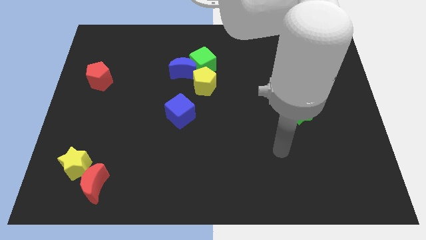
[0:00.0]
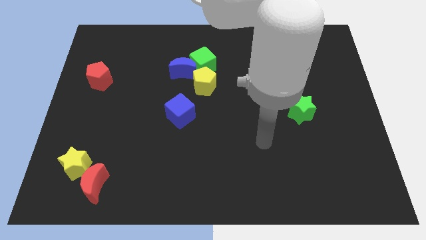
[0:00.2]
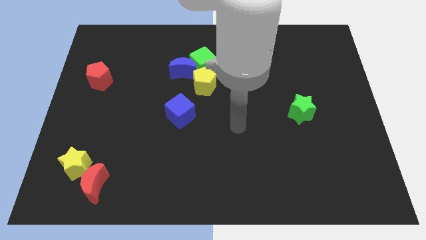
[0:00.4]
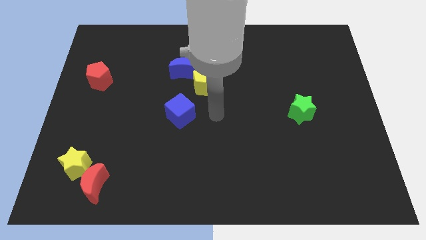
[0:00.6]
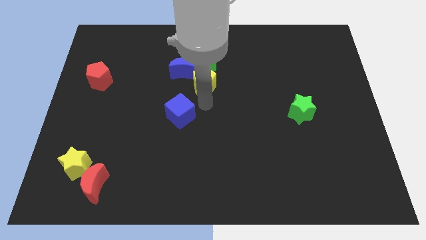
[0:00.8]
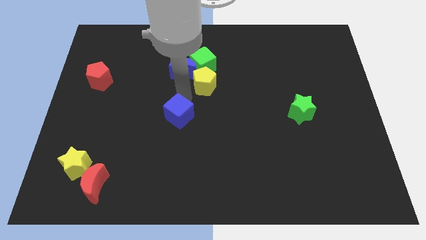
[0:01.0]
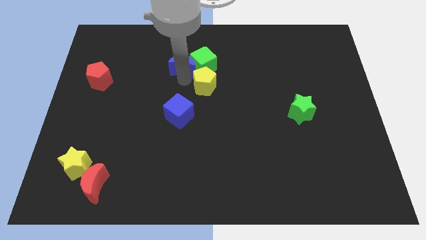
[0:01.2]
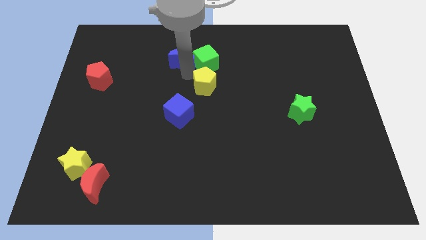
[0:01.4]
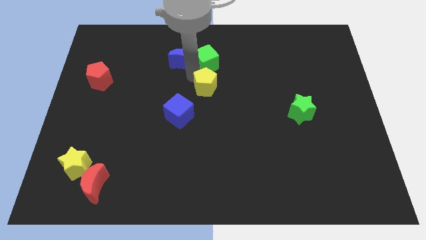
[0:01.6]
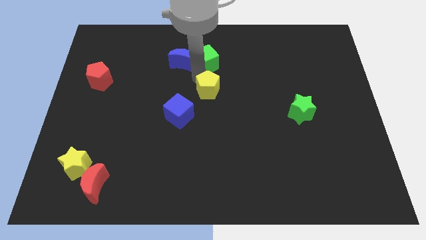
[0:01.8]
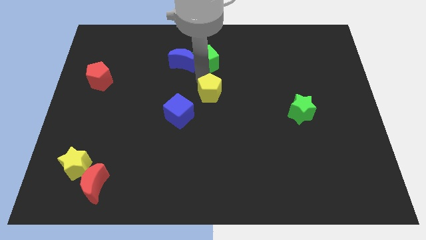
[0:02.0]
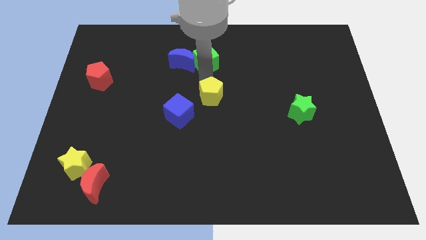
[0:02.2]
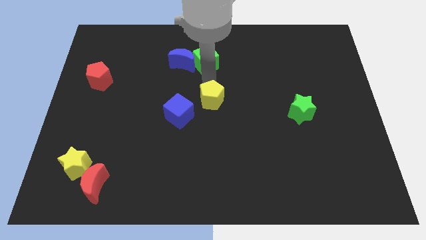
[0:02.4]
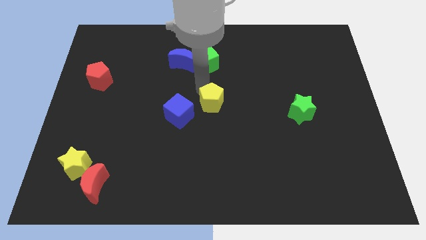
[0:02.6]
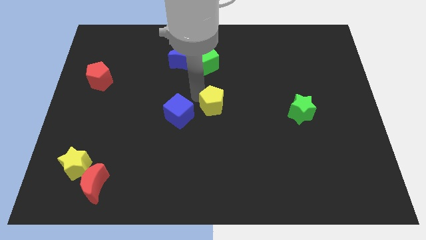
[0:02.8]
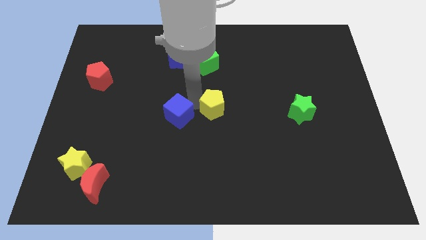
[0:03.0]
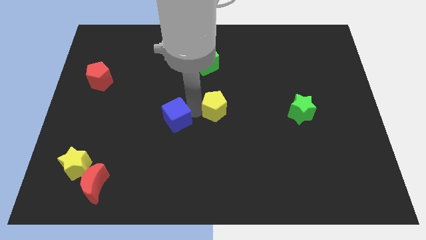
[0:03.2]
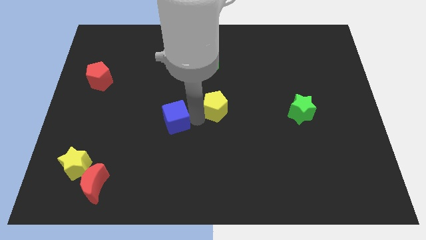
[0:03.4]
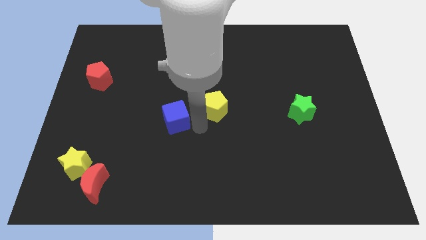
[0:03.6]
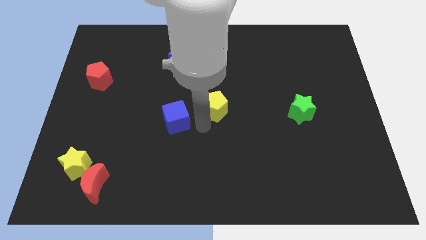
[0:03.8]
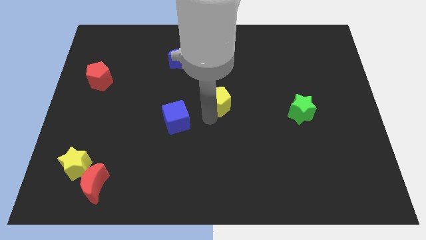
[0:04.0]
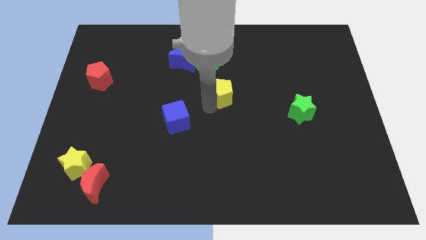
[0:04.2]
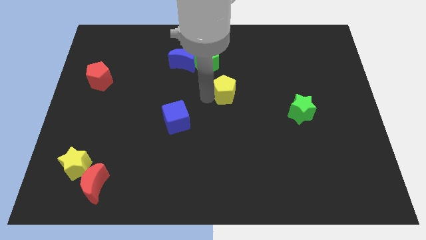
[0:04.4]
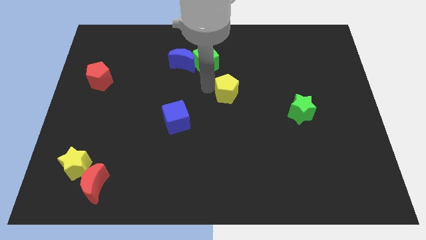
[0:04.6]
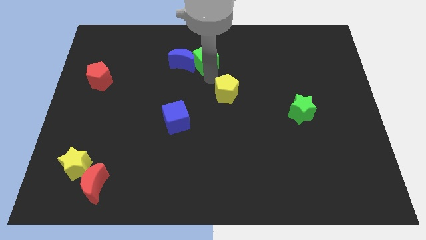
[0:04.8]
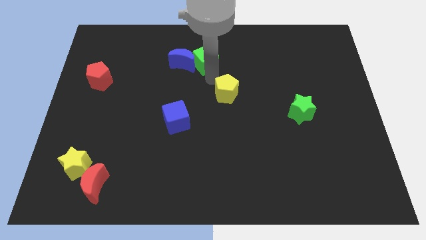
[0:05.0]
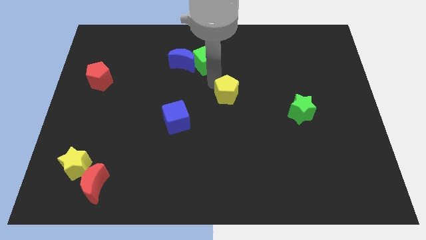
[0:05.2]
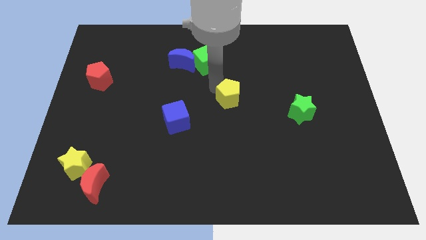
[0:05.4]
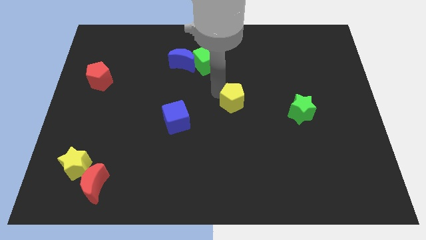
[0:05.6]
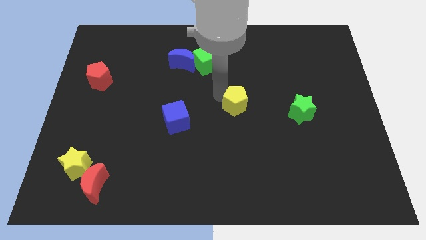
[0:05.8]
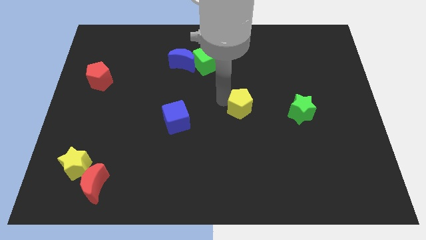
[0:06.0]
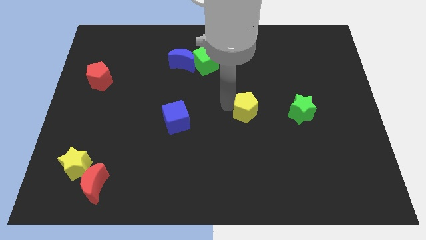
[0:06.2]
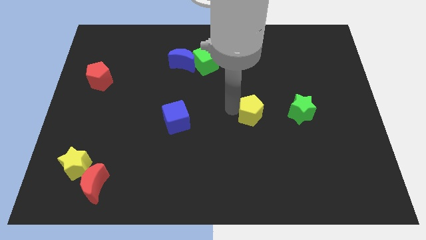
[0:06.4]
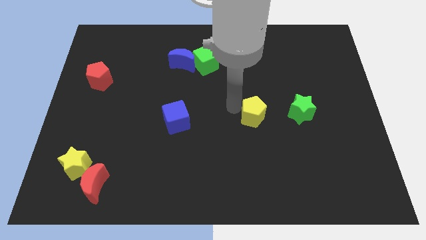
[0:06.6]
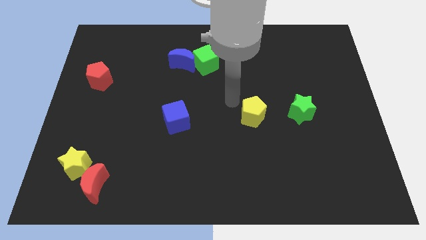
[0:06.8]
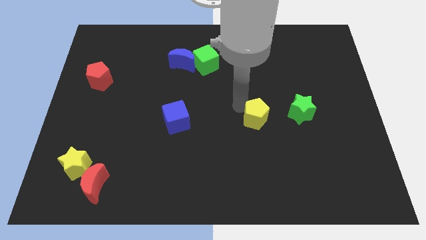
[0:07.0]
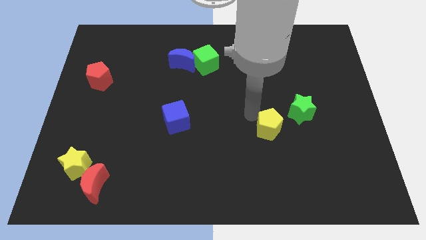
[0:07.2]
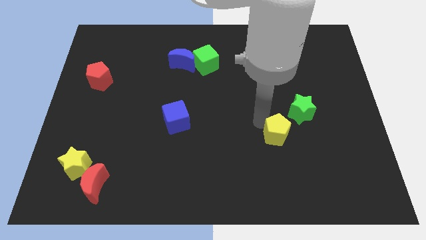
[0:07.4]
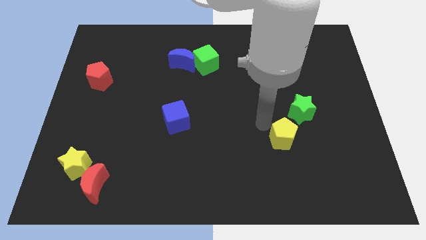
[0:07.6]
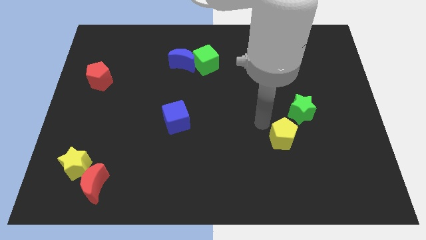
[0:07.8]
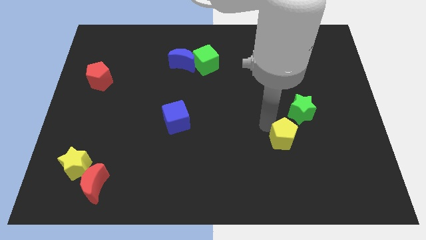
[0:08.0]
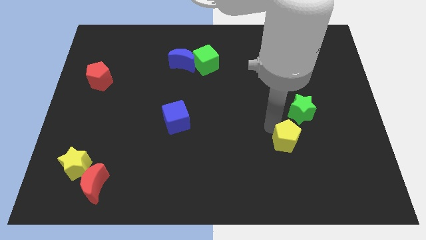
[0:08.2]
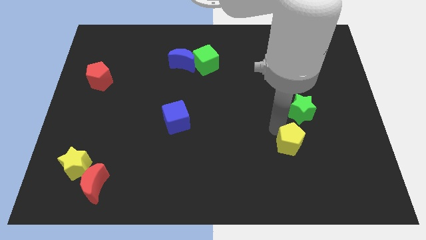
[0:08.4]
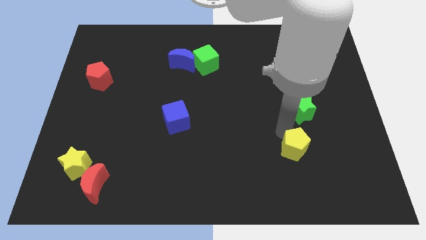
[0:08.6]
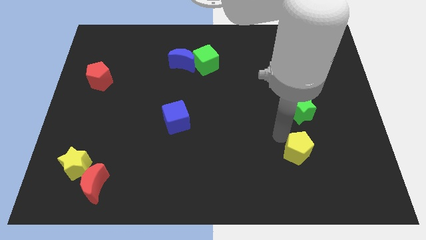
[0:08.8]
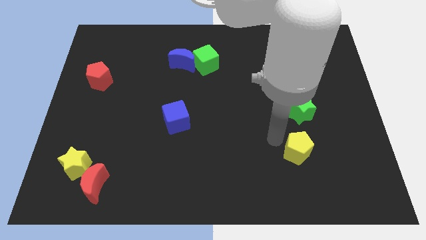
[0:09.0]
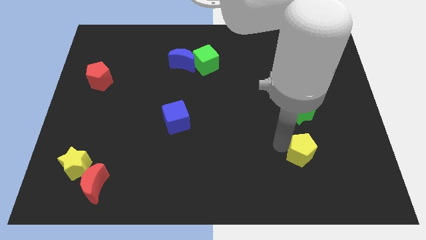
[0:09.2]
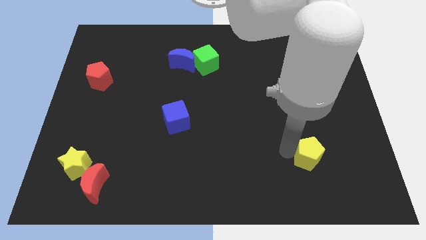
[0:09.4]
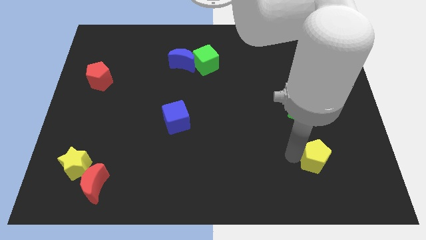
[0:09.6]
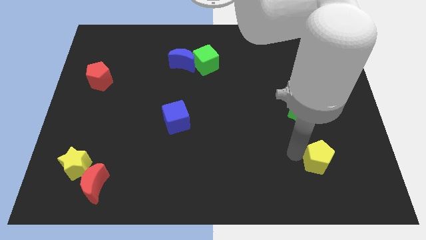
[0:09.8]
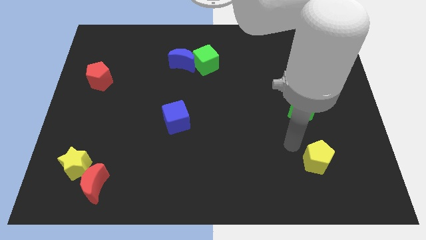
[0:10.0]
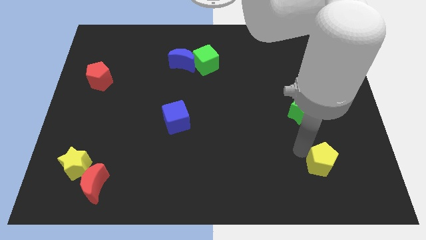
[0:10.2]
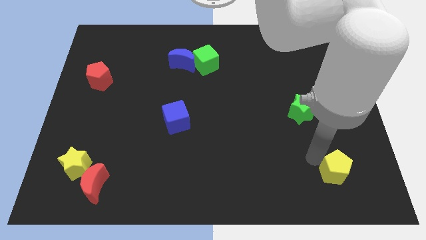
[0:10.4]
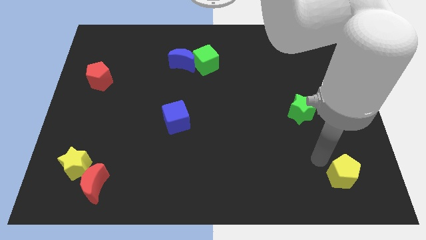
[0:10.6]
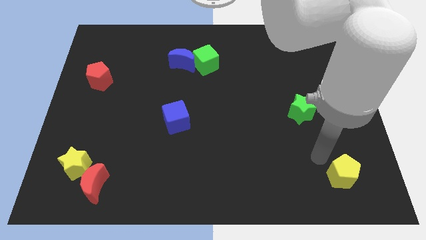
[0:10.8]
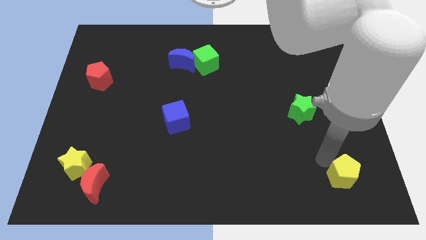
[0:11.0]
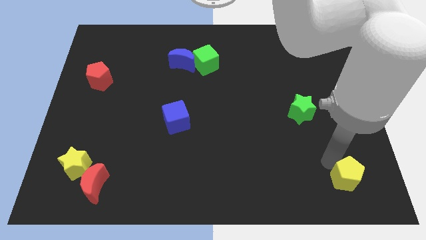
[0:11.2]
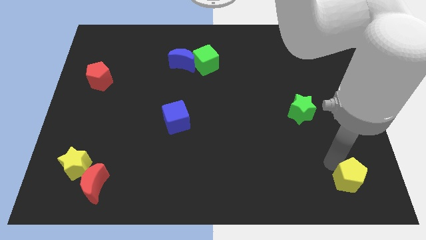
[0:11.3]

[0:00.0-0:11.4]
put the yellow pentagon to the bottom right
